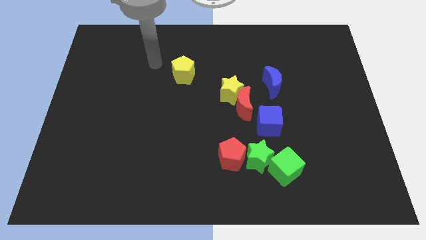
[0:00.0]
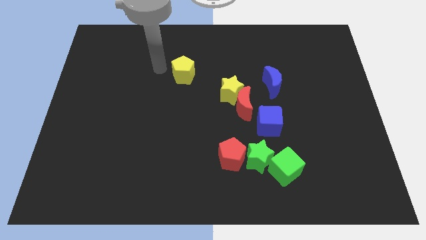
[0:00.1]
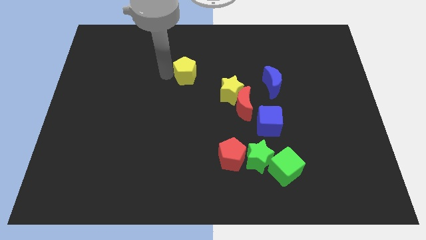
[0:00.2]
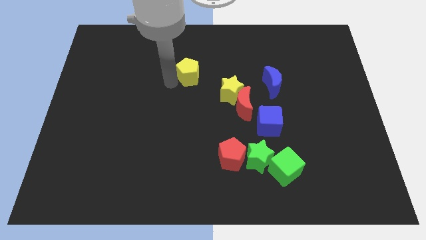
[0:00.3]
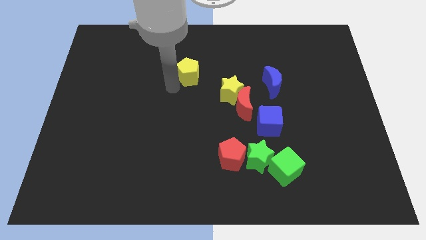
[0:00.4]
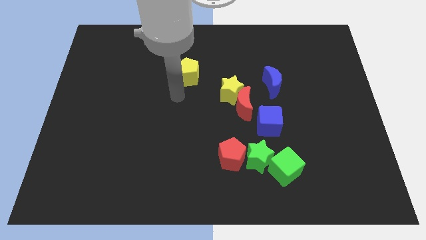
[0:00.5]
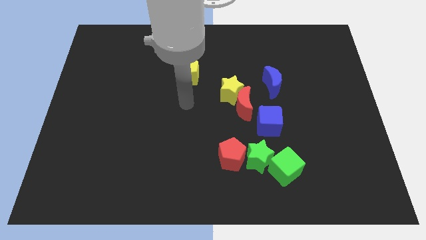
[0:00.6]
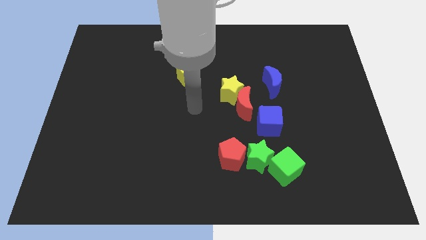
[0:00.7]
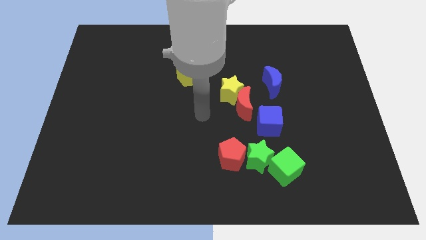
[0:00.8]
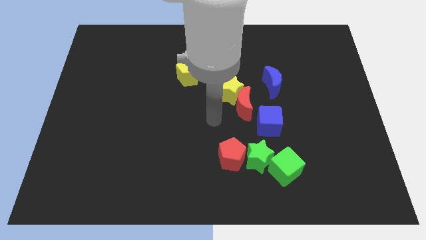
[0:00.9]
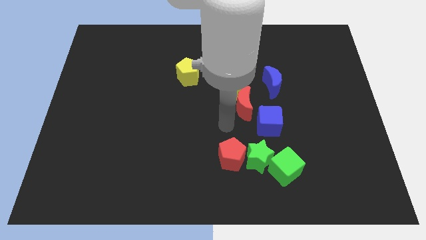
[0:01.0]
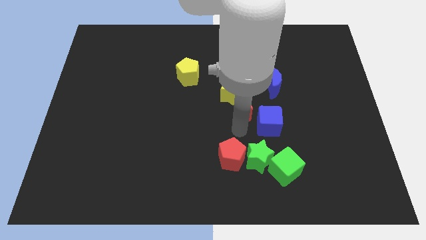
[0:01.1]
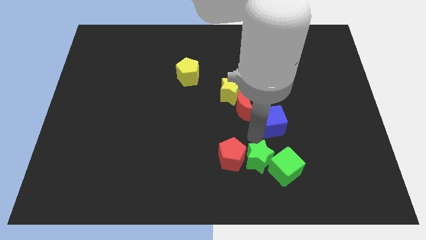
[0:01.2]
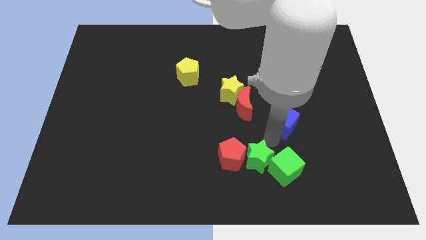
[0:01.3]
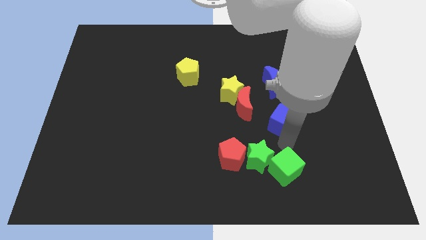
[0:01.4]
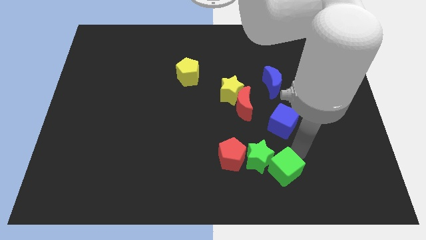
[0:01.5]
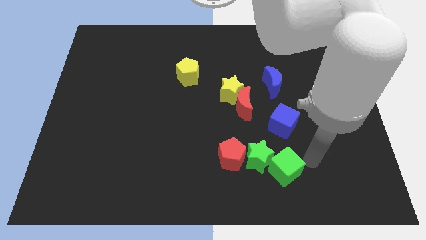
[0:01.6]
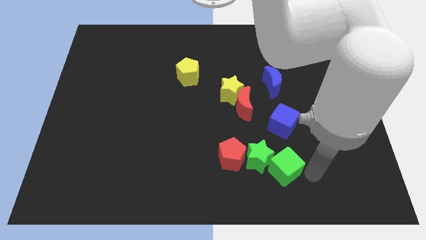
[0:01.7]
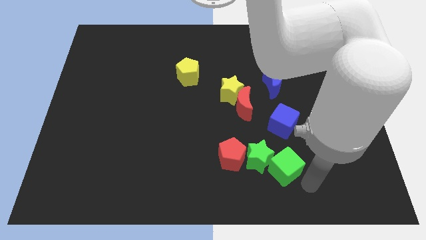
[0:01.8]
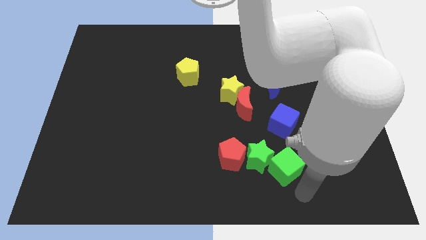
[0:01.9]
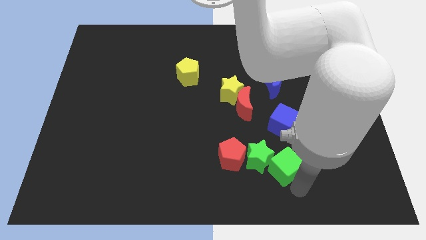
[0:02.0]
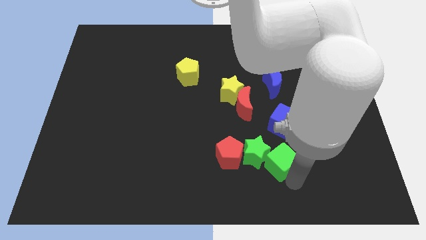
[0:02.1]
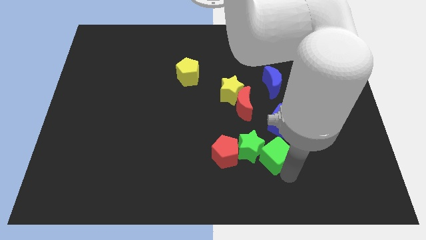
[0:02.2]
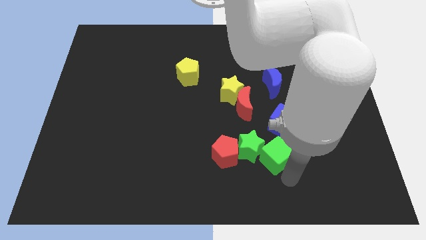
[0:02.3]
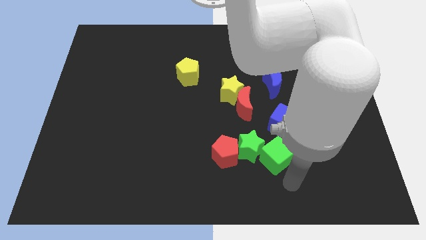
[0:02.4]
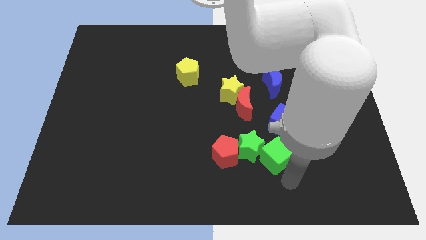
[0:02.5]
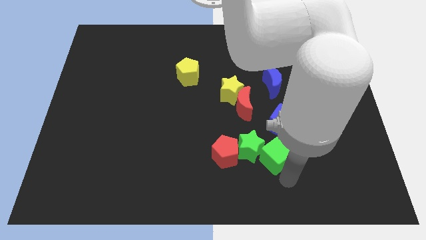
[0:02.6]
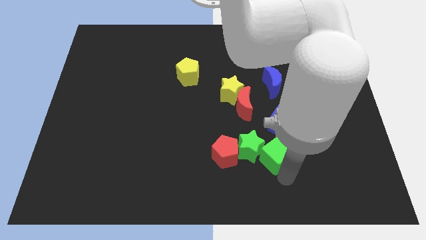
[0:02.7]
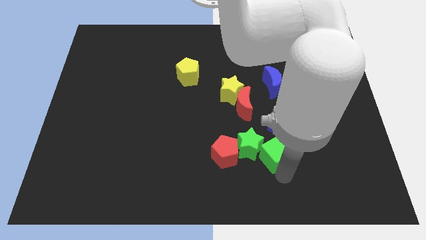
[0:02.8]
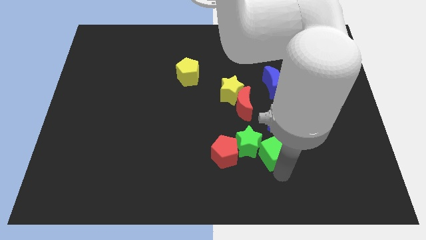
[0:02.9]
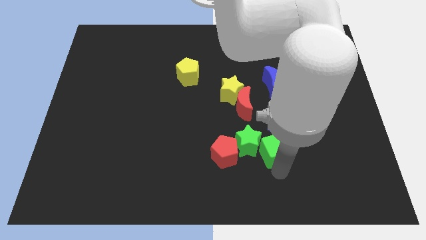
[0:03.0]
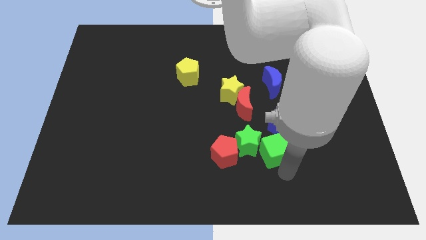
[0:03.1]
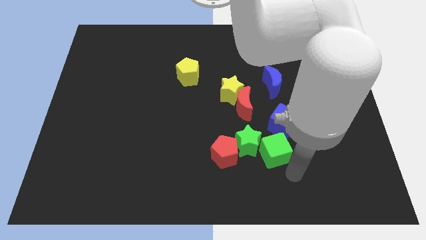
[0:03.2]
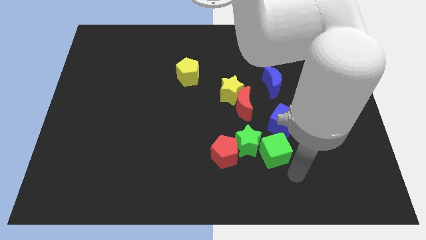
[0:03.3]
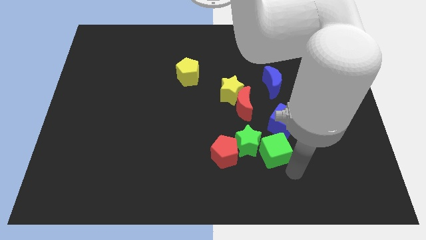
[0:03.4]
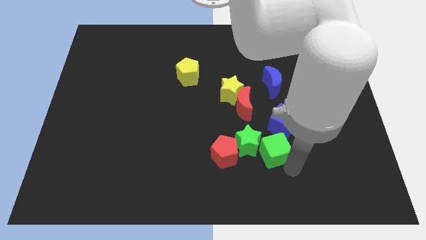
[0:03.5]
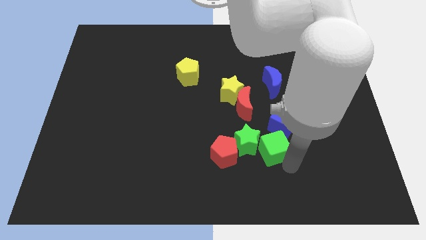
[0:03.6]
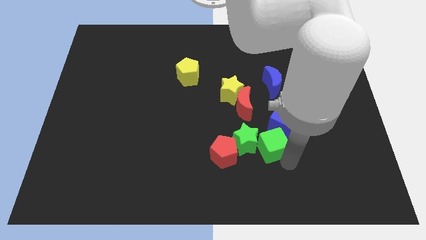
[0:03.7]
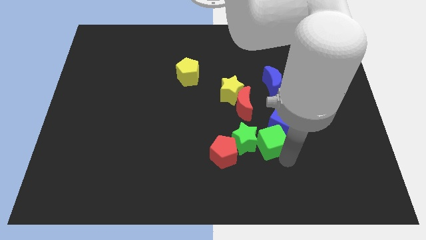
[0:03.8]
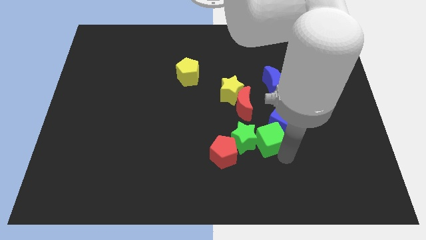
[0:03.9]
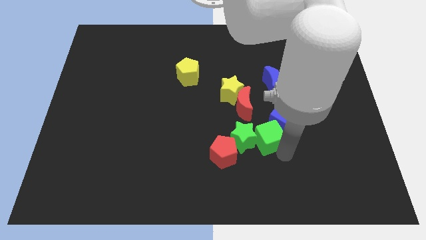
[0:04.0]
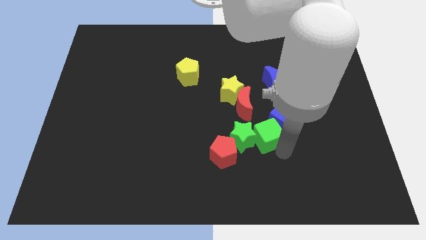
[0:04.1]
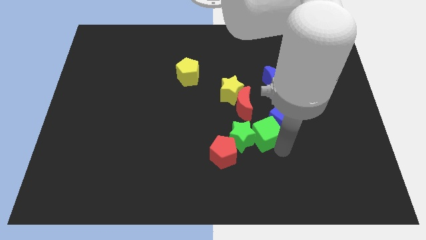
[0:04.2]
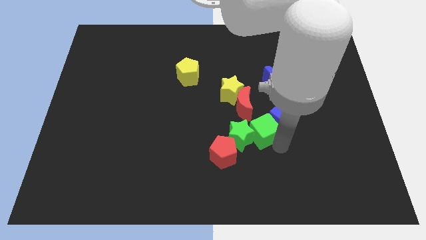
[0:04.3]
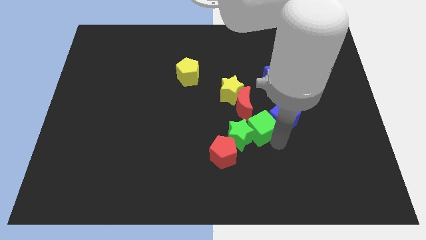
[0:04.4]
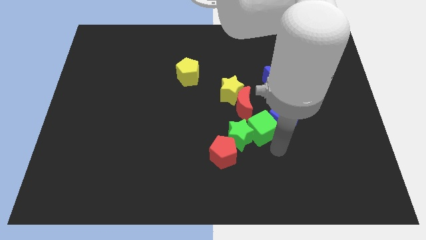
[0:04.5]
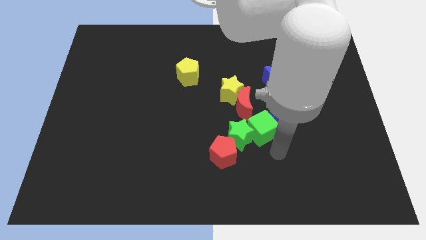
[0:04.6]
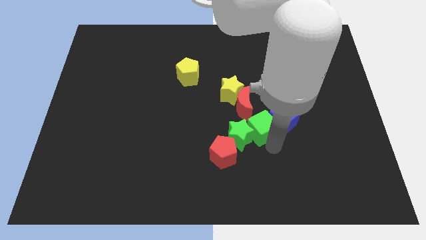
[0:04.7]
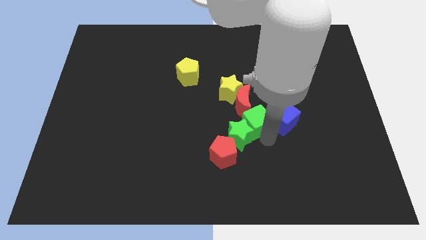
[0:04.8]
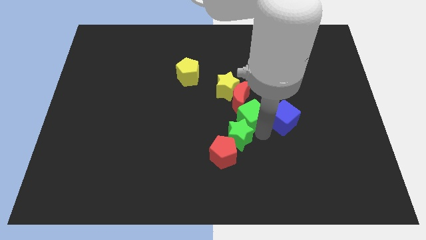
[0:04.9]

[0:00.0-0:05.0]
put the green cube towards the red moon

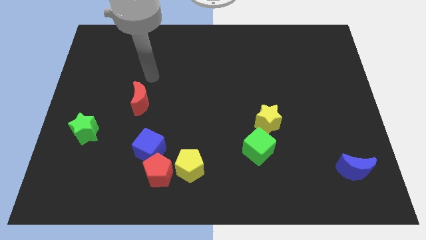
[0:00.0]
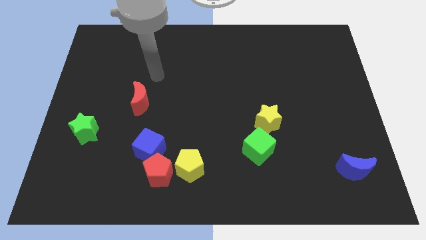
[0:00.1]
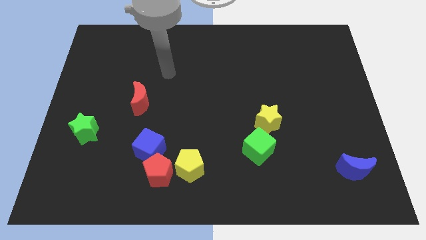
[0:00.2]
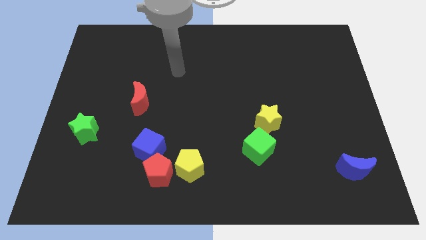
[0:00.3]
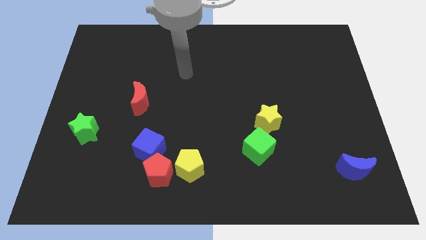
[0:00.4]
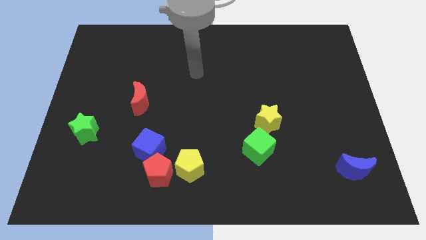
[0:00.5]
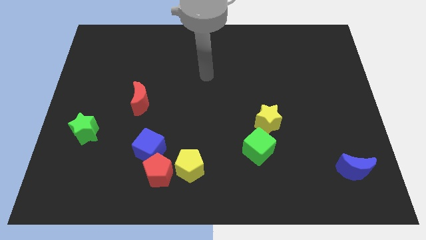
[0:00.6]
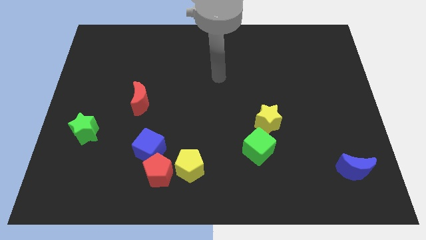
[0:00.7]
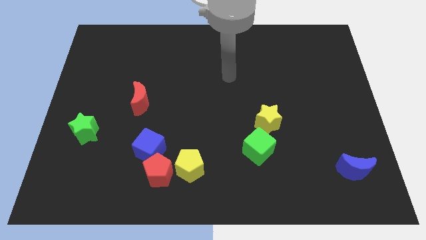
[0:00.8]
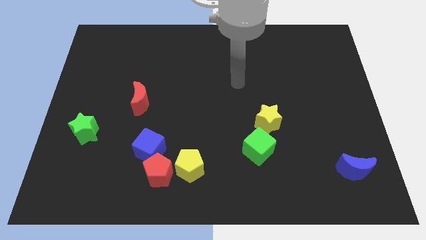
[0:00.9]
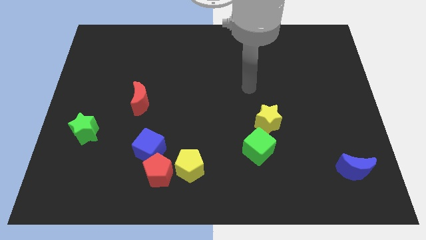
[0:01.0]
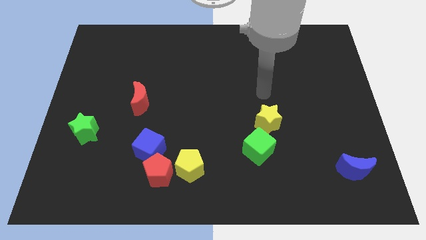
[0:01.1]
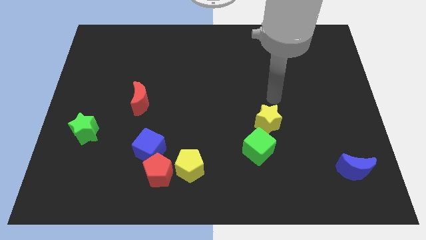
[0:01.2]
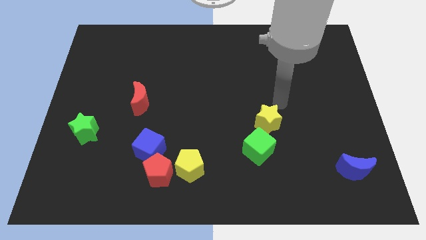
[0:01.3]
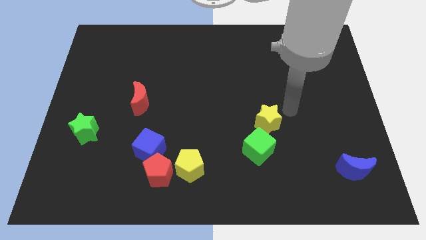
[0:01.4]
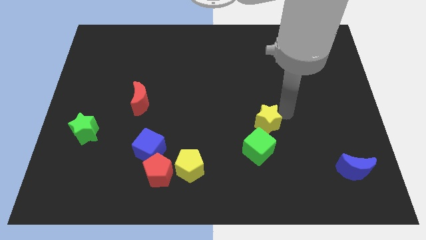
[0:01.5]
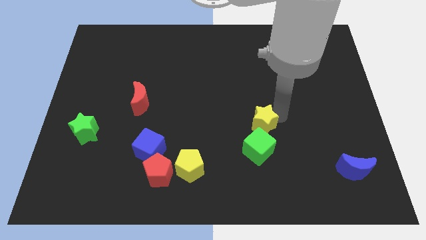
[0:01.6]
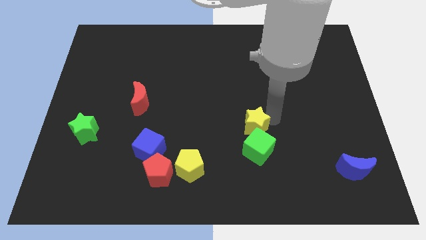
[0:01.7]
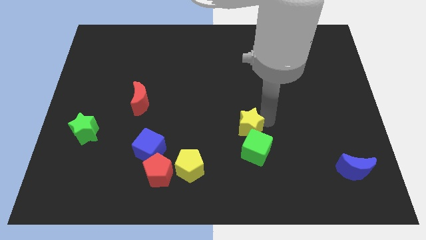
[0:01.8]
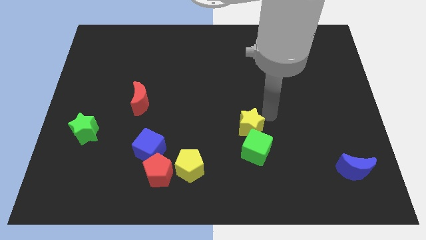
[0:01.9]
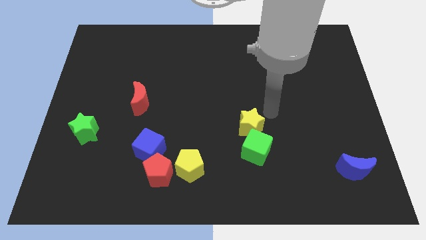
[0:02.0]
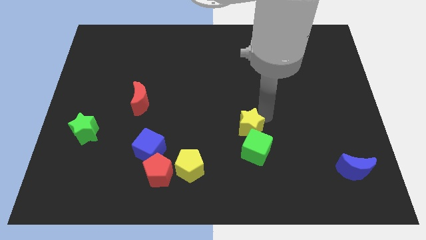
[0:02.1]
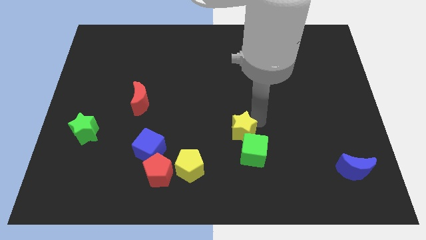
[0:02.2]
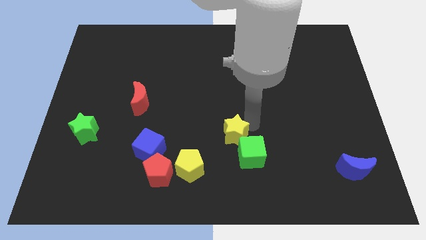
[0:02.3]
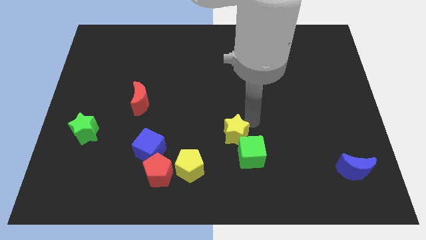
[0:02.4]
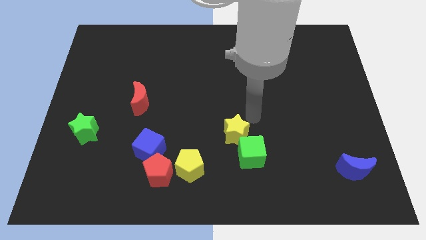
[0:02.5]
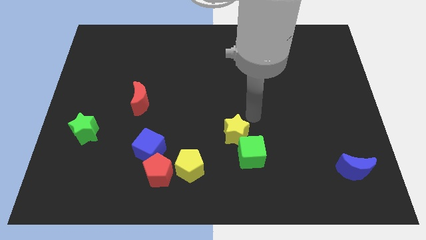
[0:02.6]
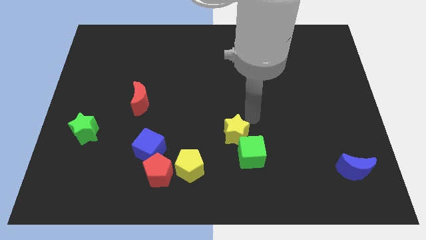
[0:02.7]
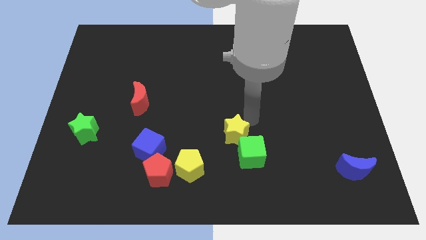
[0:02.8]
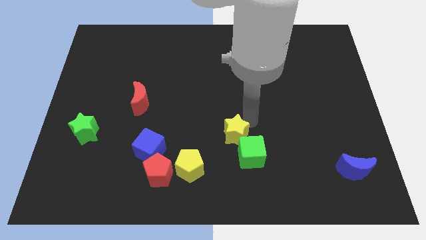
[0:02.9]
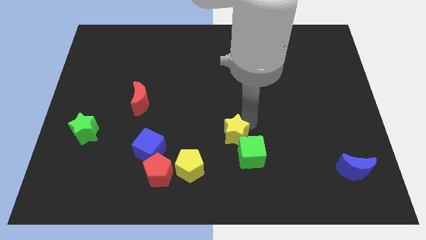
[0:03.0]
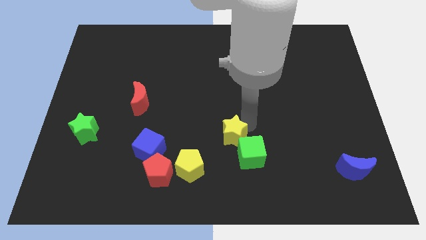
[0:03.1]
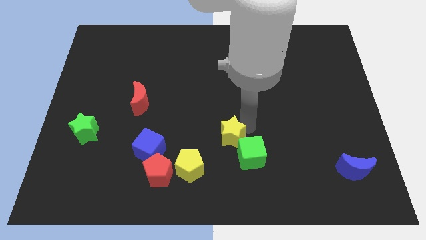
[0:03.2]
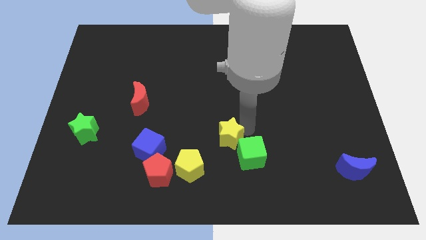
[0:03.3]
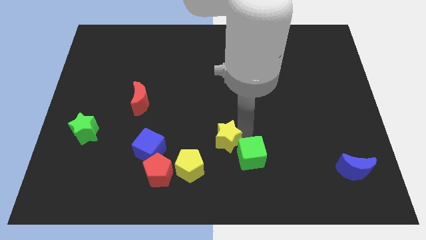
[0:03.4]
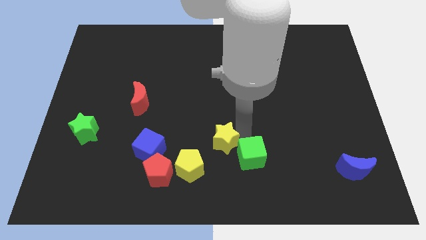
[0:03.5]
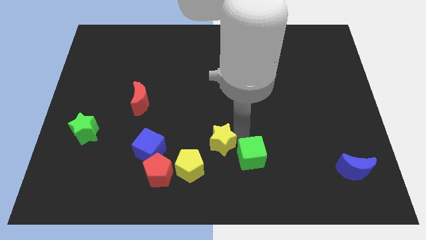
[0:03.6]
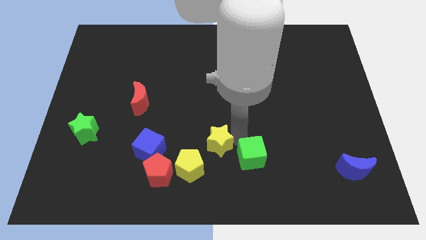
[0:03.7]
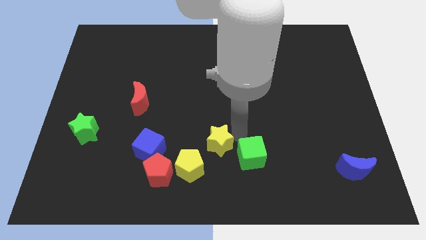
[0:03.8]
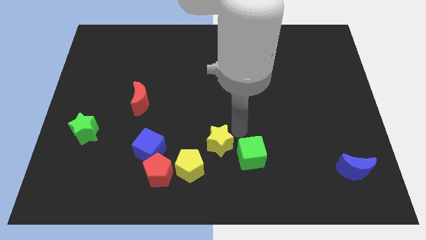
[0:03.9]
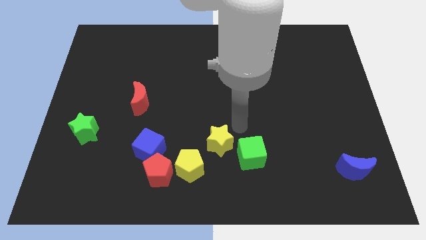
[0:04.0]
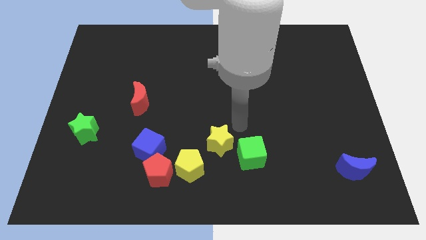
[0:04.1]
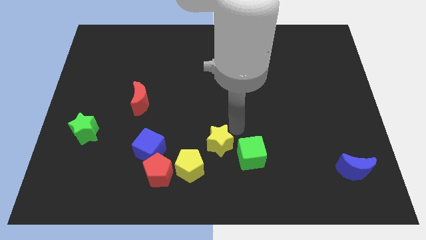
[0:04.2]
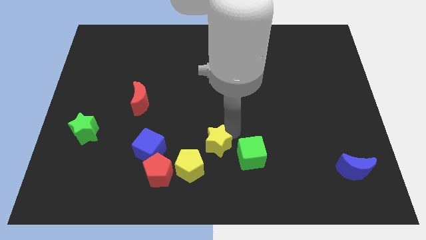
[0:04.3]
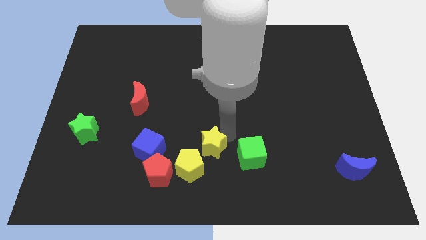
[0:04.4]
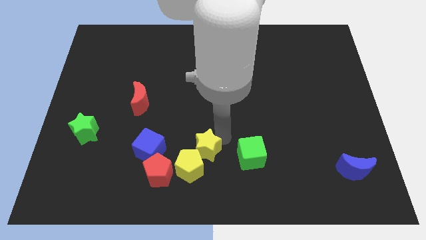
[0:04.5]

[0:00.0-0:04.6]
put the yellow star next to the yellow pentagon
